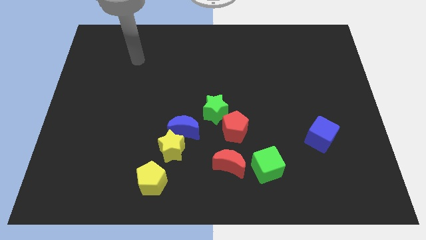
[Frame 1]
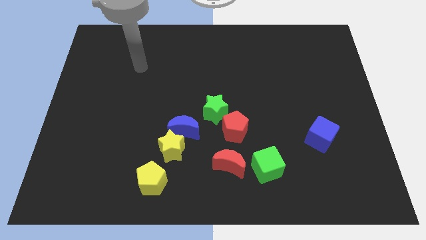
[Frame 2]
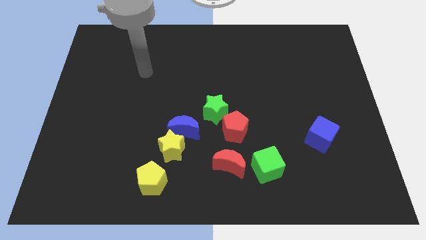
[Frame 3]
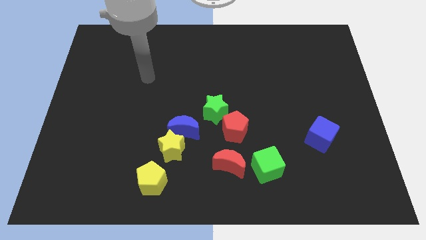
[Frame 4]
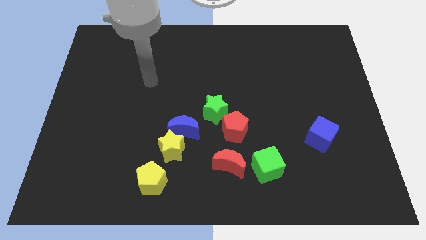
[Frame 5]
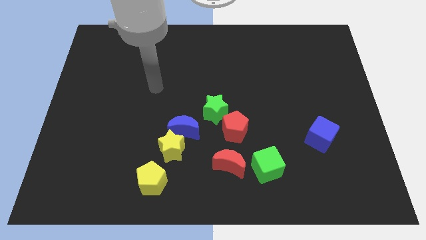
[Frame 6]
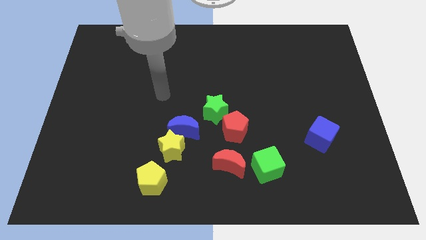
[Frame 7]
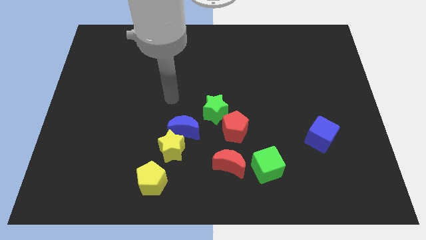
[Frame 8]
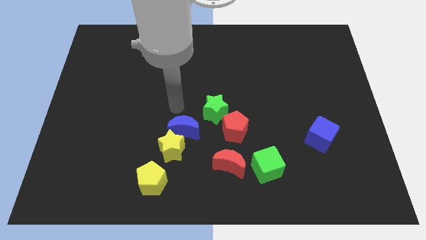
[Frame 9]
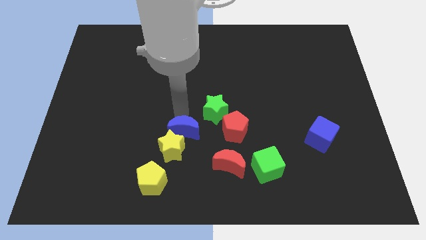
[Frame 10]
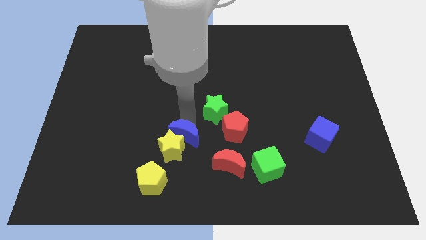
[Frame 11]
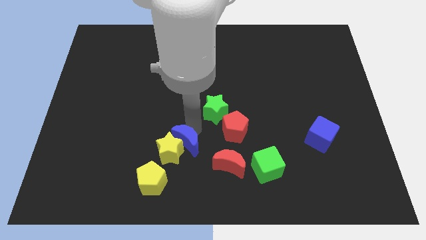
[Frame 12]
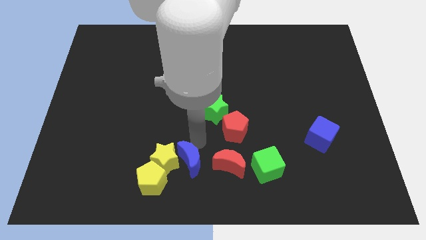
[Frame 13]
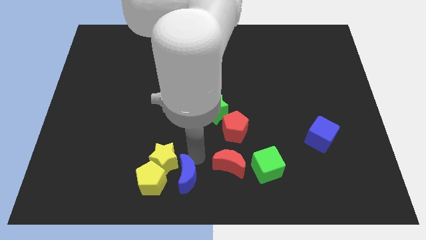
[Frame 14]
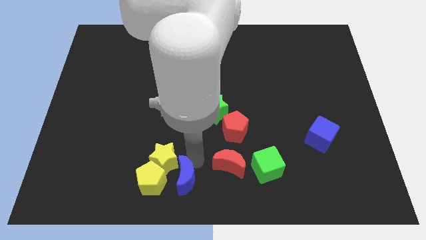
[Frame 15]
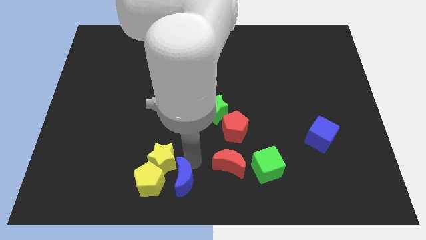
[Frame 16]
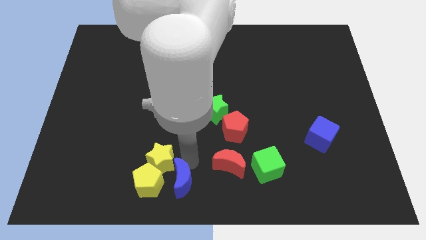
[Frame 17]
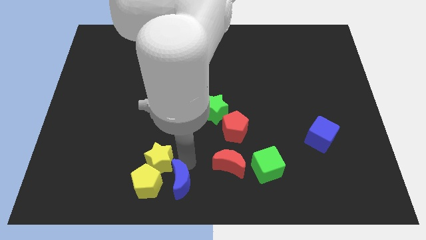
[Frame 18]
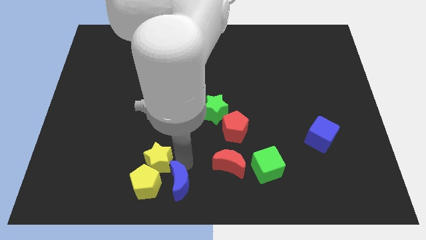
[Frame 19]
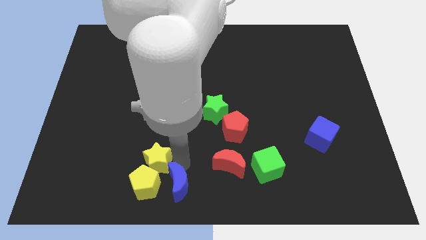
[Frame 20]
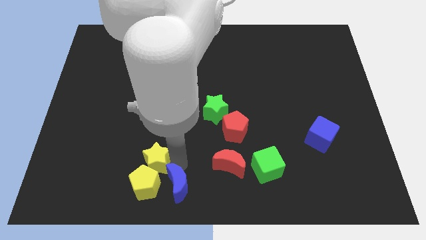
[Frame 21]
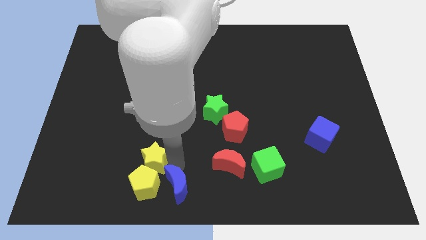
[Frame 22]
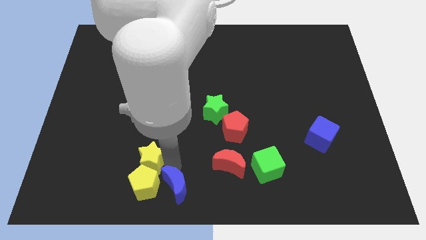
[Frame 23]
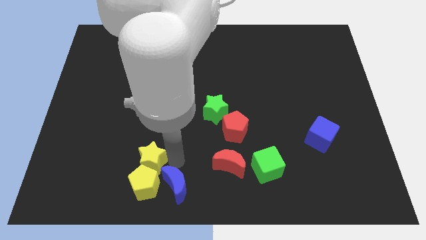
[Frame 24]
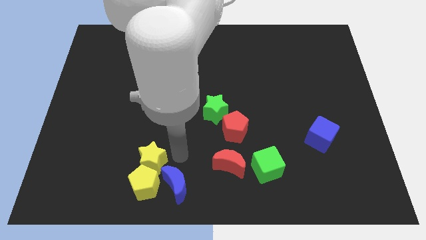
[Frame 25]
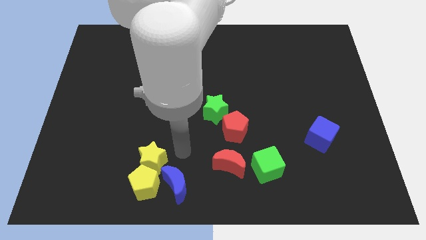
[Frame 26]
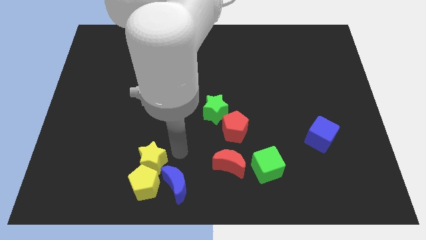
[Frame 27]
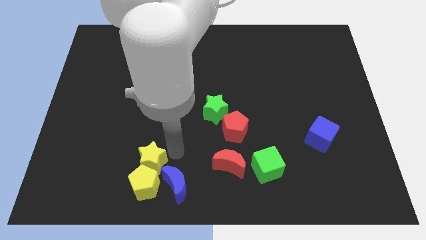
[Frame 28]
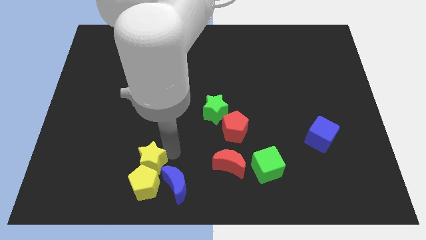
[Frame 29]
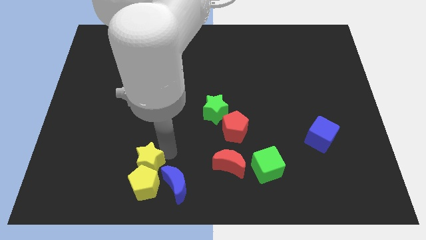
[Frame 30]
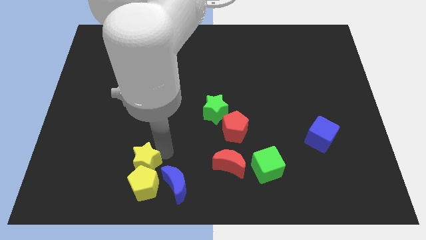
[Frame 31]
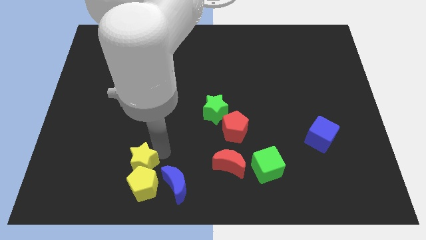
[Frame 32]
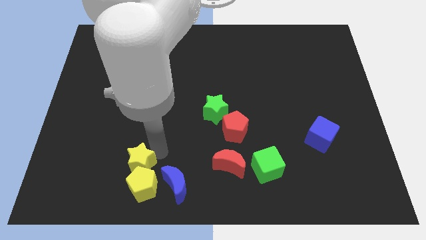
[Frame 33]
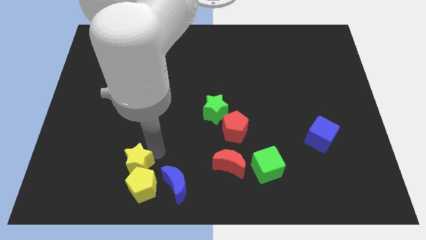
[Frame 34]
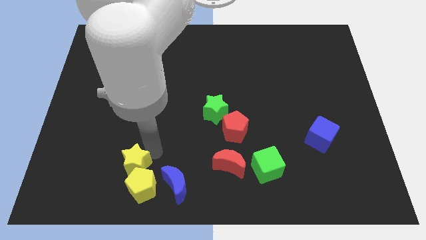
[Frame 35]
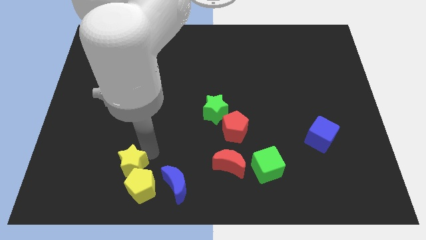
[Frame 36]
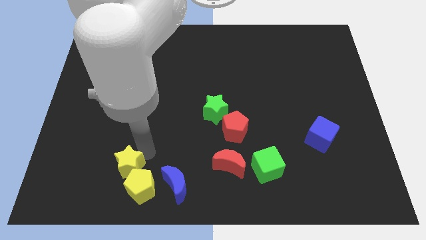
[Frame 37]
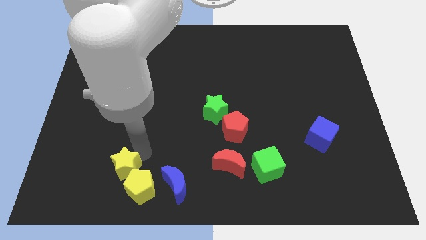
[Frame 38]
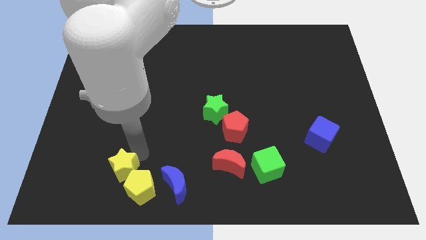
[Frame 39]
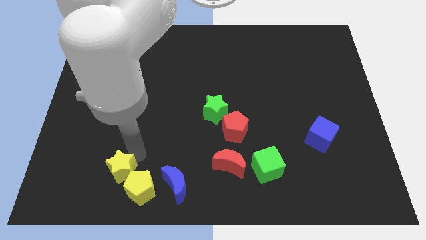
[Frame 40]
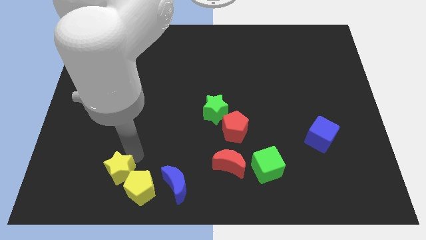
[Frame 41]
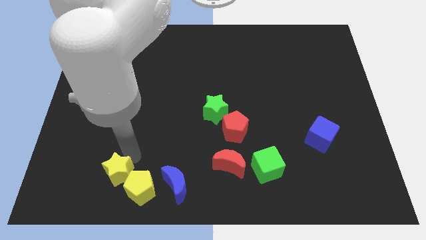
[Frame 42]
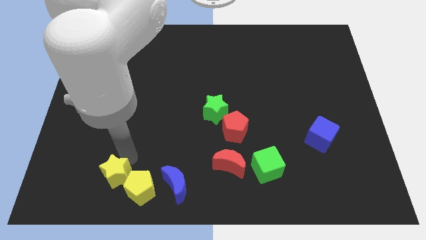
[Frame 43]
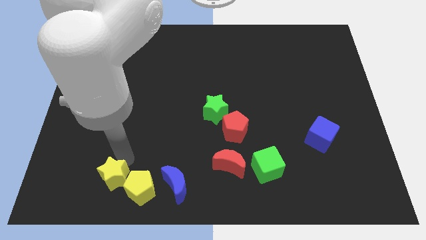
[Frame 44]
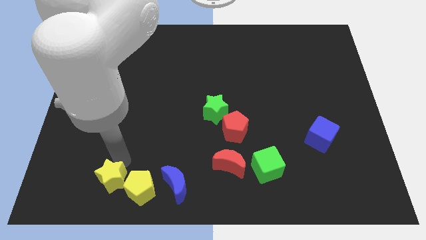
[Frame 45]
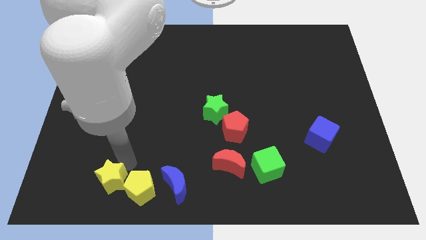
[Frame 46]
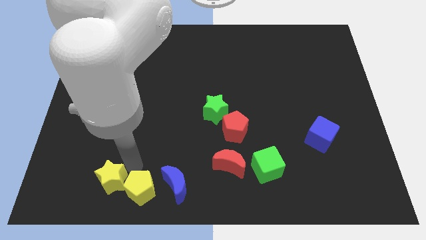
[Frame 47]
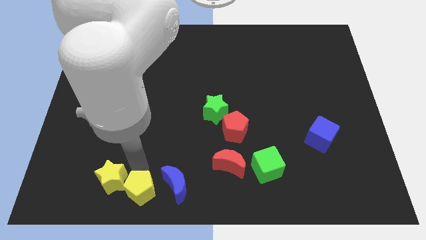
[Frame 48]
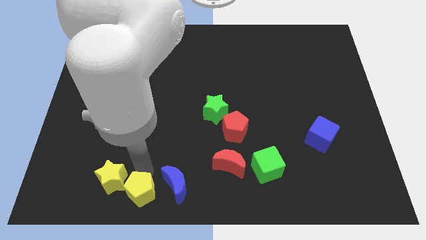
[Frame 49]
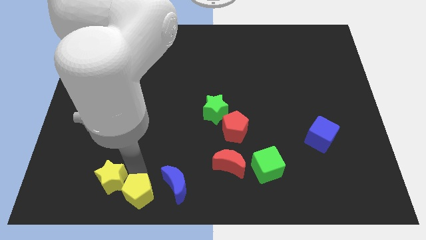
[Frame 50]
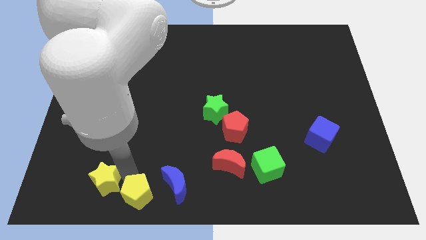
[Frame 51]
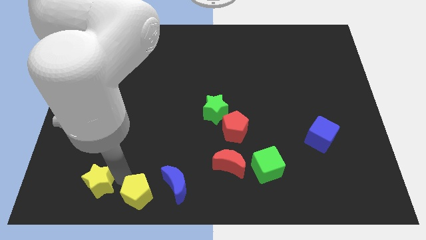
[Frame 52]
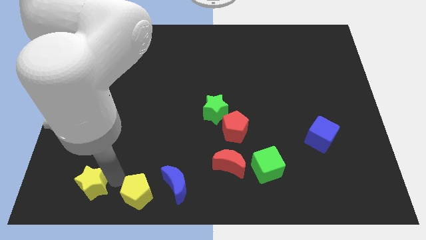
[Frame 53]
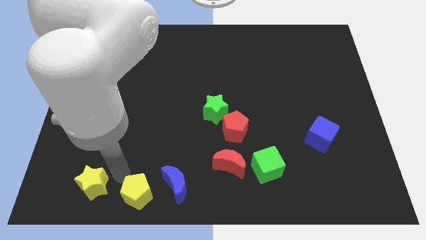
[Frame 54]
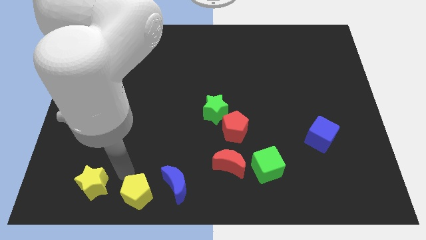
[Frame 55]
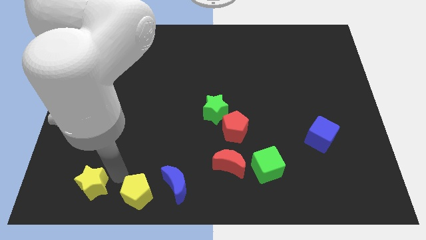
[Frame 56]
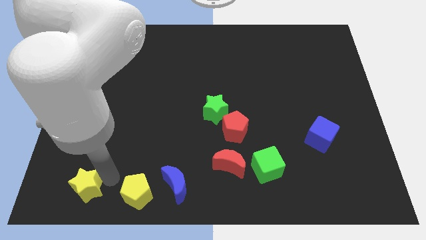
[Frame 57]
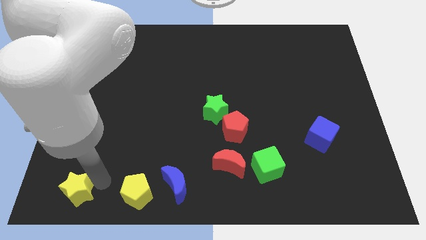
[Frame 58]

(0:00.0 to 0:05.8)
move the yellow star to the bottom left of the board

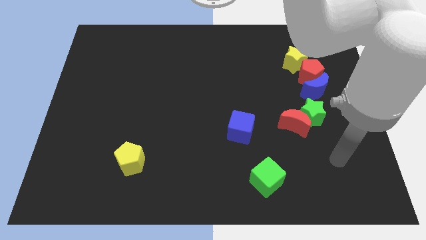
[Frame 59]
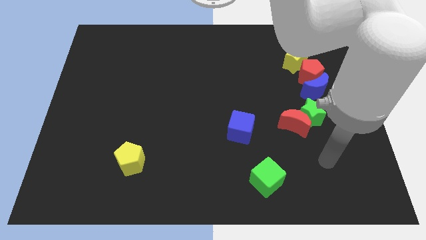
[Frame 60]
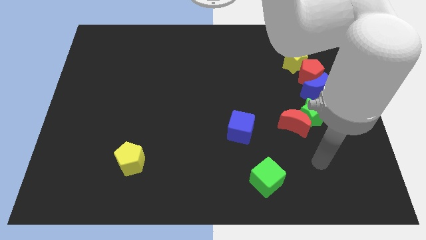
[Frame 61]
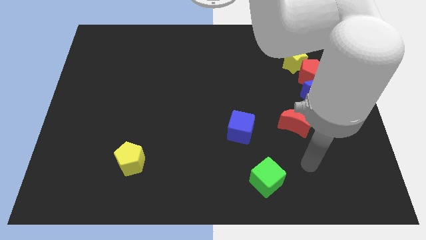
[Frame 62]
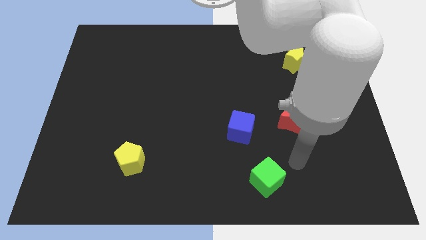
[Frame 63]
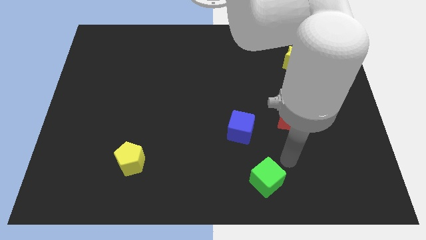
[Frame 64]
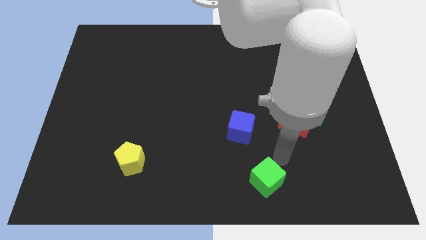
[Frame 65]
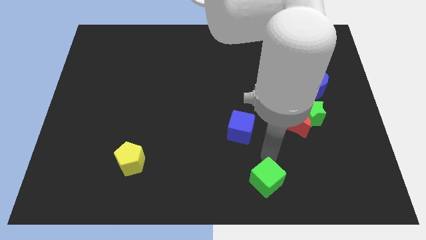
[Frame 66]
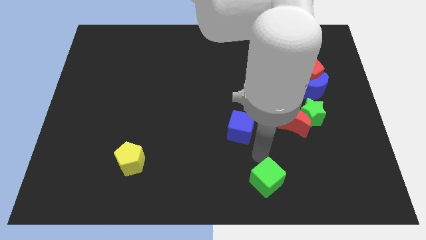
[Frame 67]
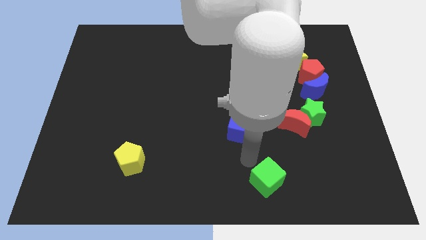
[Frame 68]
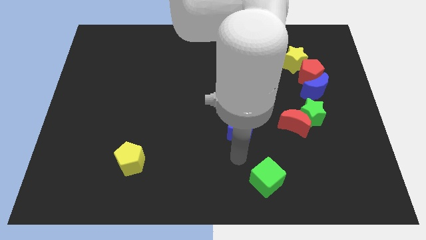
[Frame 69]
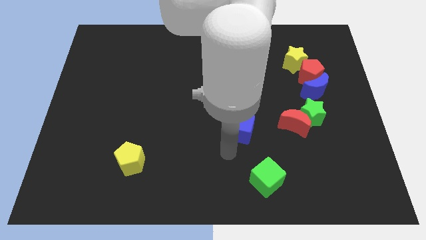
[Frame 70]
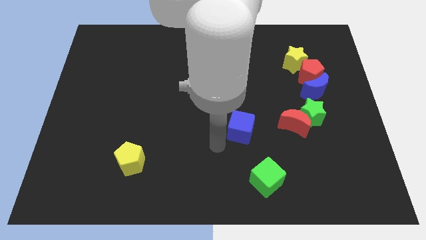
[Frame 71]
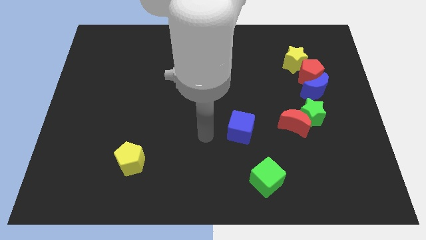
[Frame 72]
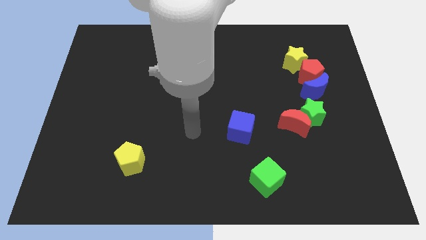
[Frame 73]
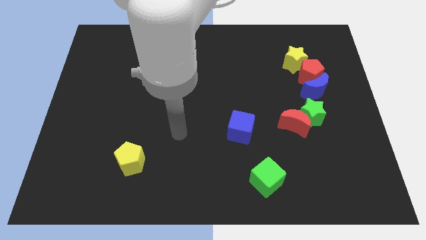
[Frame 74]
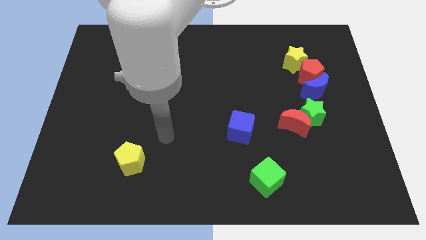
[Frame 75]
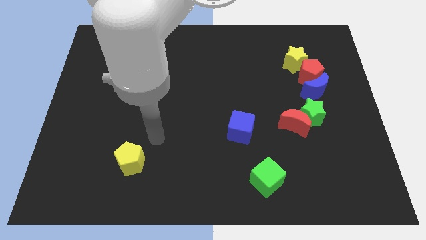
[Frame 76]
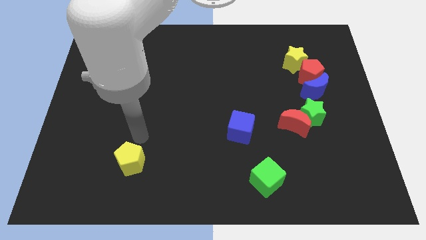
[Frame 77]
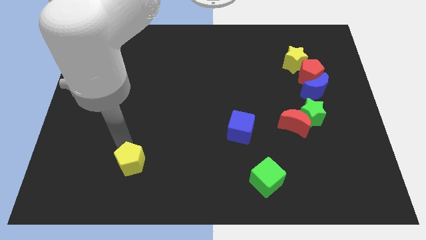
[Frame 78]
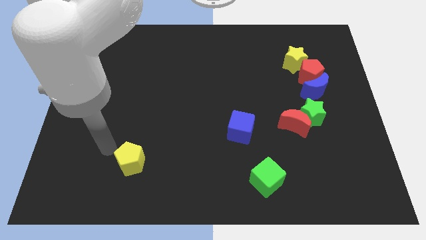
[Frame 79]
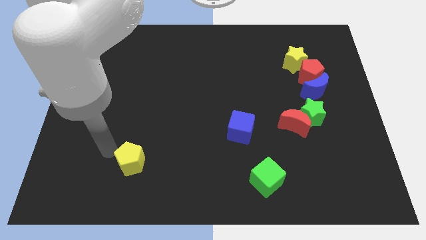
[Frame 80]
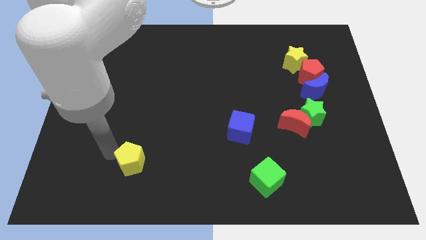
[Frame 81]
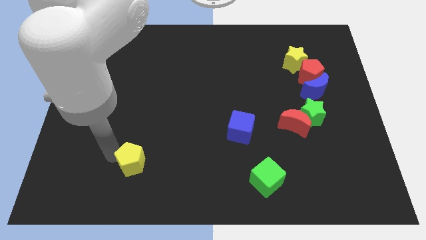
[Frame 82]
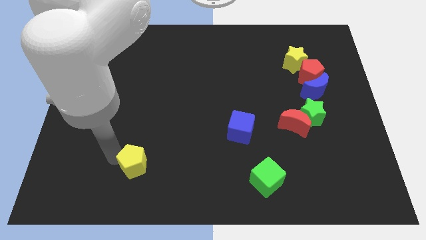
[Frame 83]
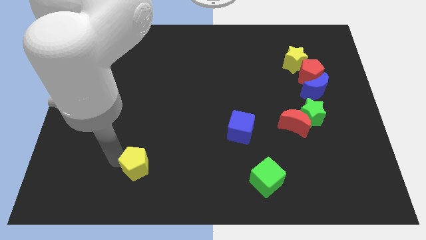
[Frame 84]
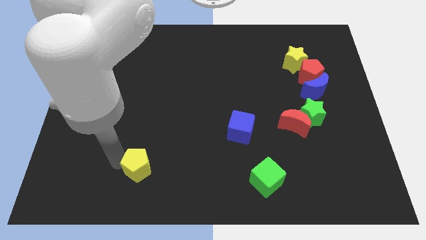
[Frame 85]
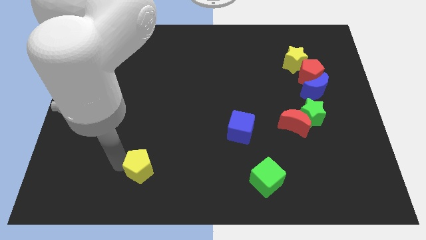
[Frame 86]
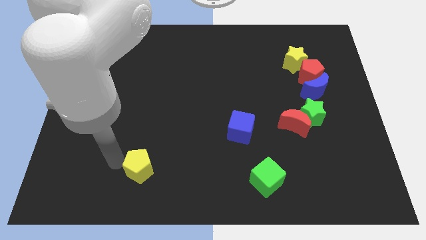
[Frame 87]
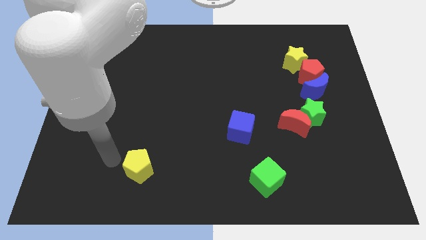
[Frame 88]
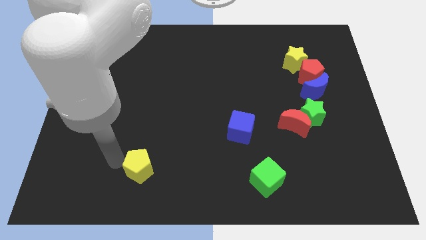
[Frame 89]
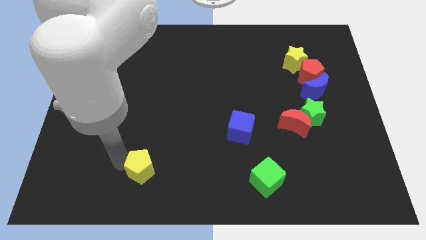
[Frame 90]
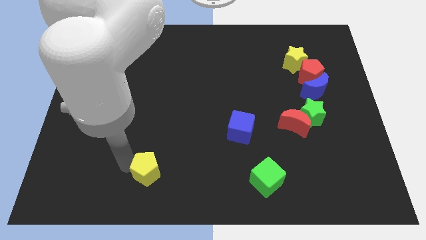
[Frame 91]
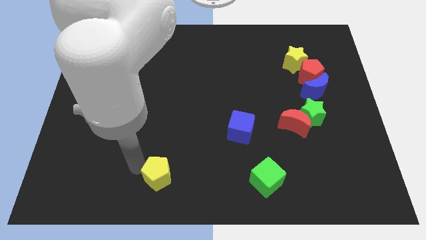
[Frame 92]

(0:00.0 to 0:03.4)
push the yellow pentagon to the bottom
